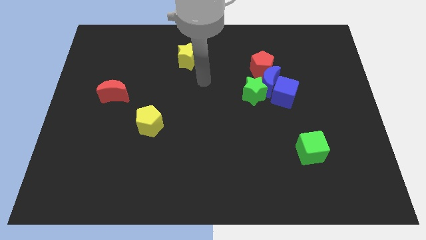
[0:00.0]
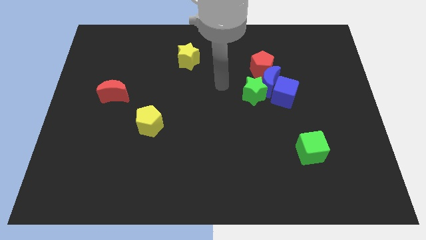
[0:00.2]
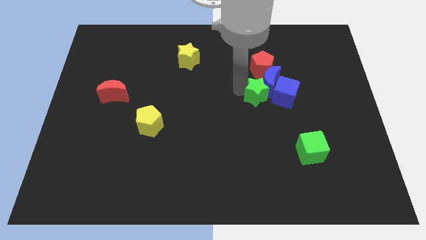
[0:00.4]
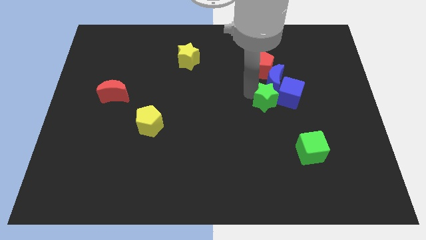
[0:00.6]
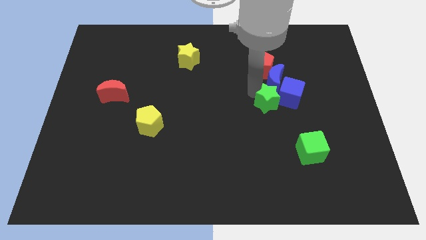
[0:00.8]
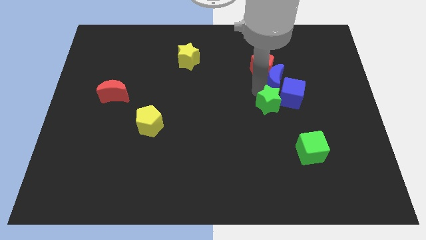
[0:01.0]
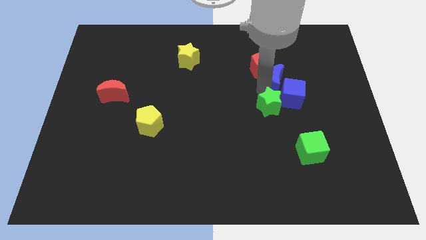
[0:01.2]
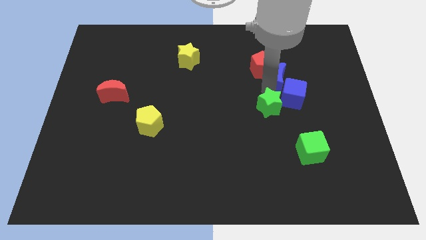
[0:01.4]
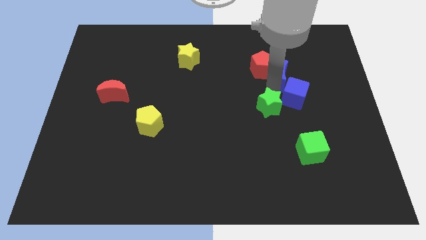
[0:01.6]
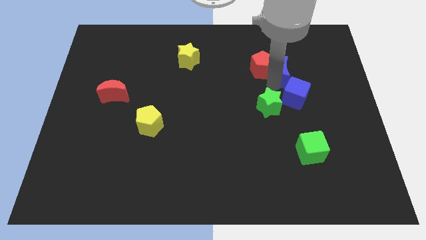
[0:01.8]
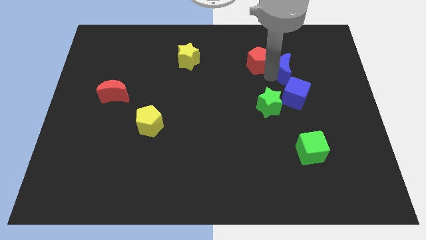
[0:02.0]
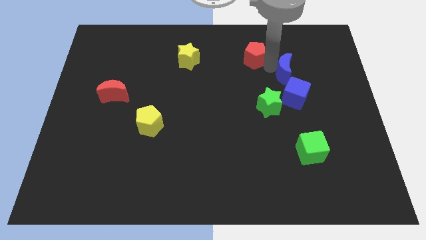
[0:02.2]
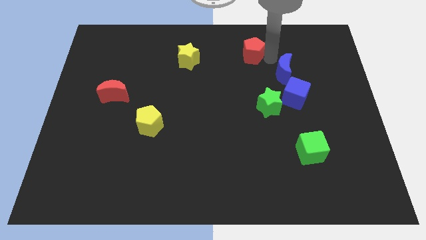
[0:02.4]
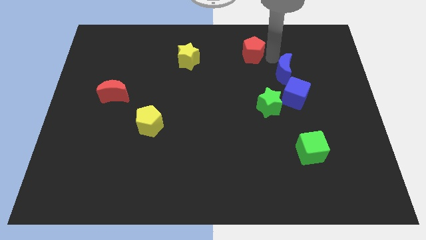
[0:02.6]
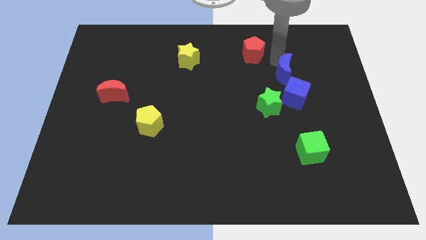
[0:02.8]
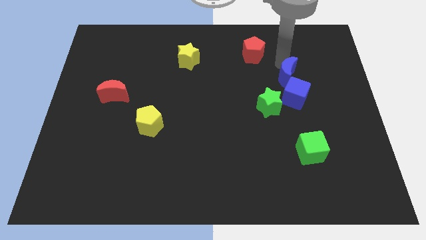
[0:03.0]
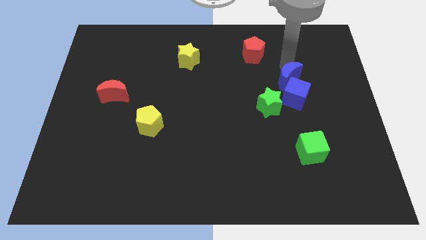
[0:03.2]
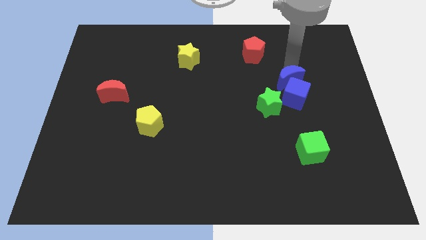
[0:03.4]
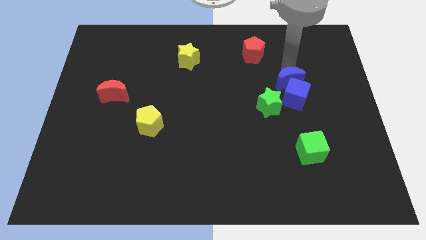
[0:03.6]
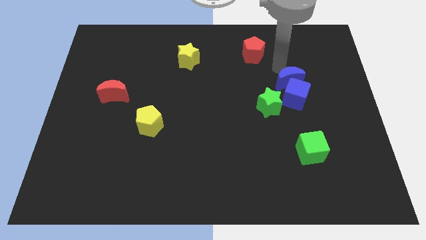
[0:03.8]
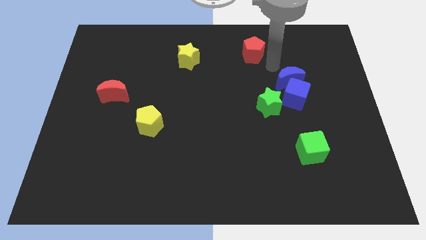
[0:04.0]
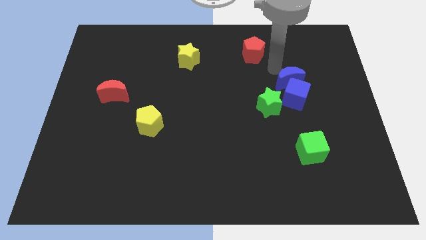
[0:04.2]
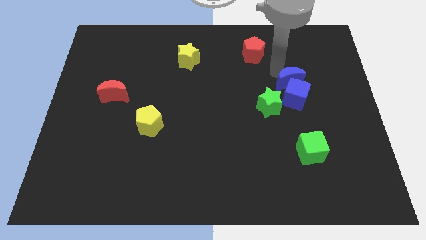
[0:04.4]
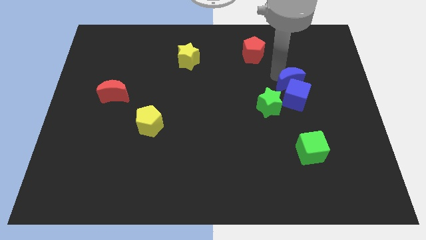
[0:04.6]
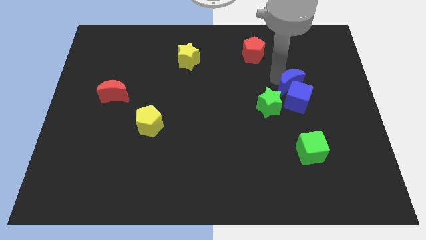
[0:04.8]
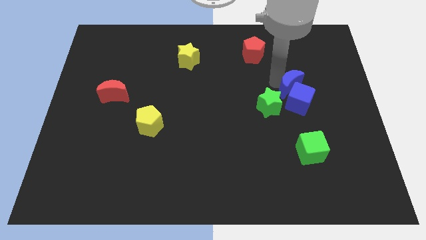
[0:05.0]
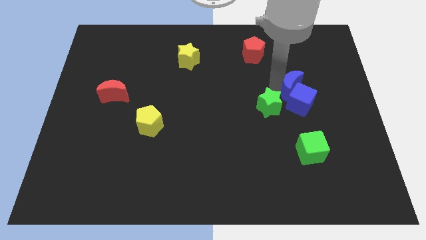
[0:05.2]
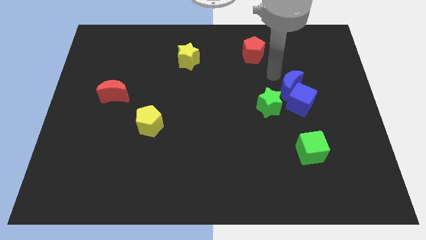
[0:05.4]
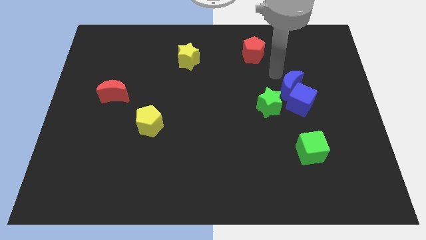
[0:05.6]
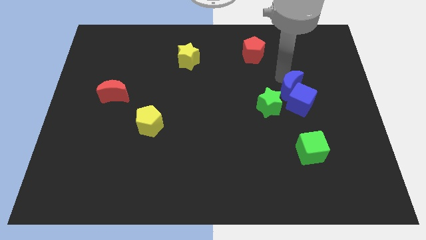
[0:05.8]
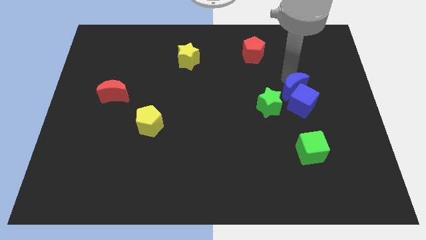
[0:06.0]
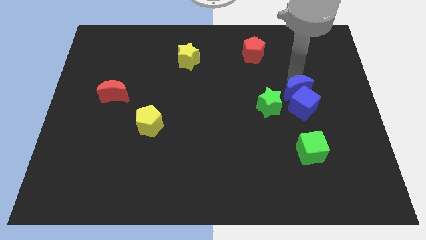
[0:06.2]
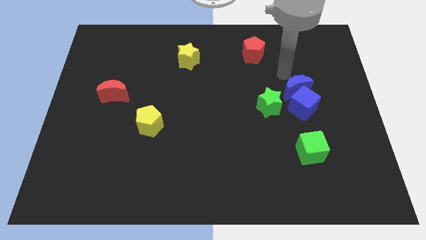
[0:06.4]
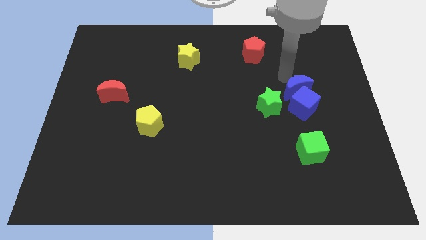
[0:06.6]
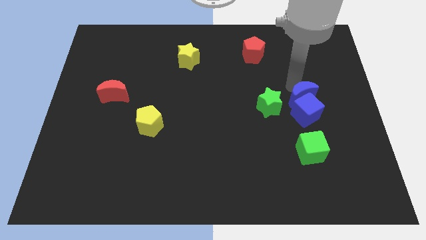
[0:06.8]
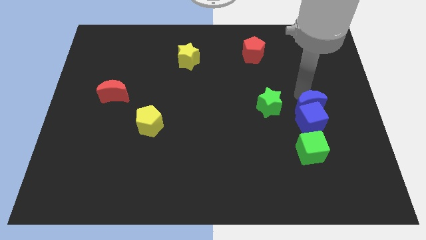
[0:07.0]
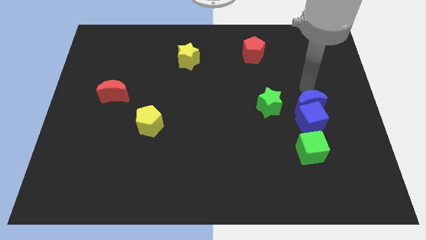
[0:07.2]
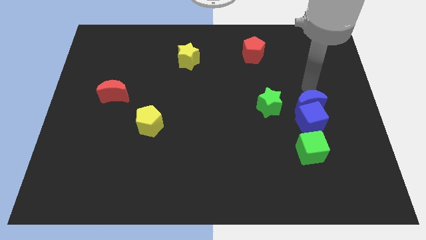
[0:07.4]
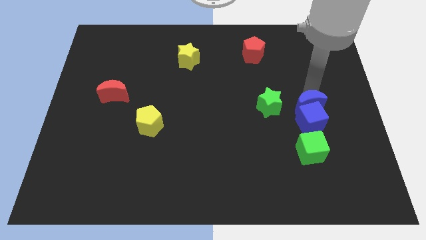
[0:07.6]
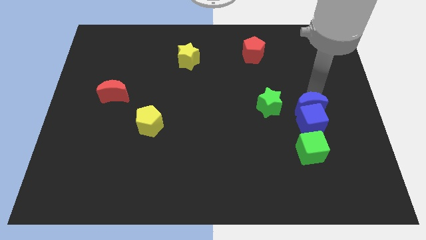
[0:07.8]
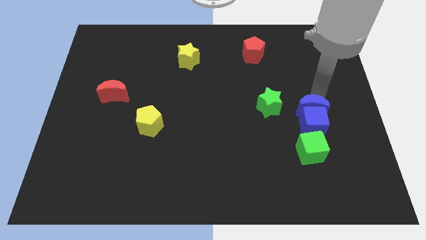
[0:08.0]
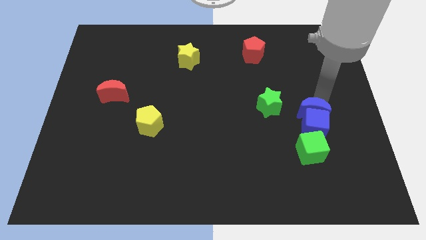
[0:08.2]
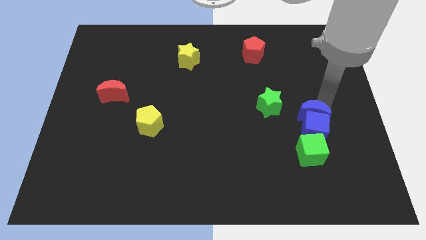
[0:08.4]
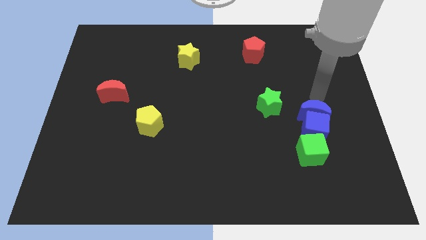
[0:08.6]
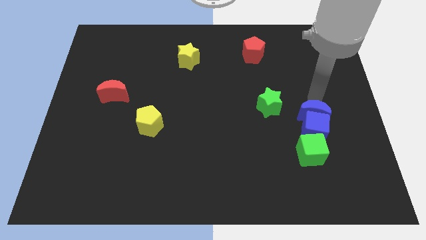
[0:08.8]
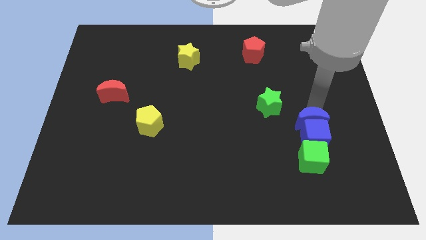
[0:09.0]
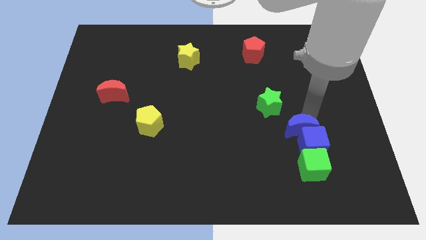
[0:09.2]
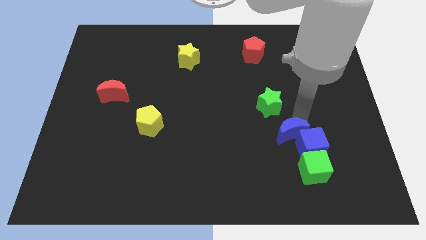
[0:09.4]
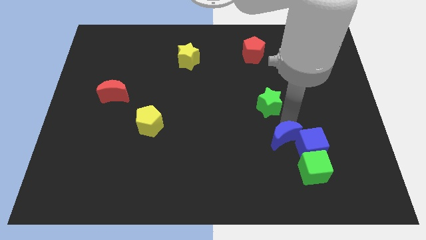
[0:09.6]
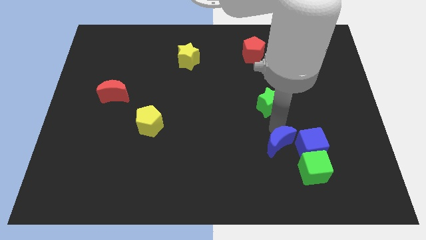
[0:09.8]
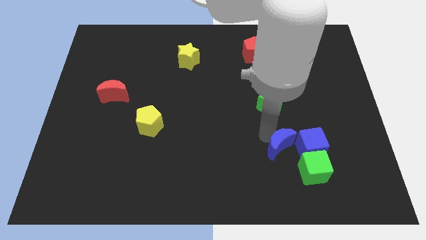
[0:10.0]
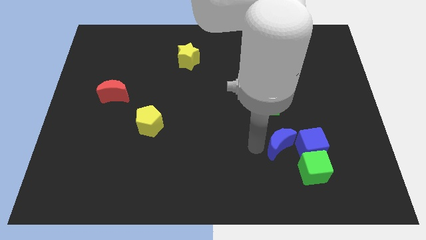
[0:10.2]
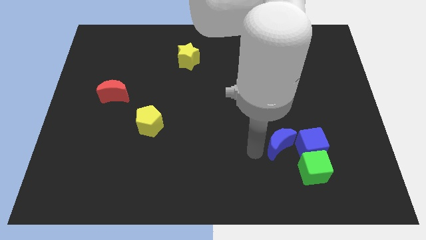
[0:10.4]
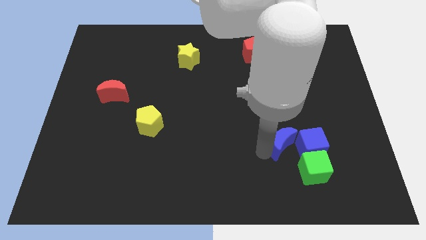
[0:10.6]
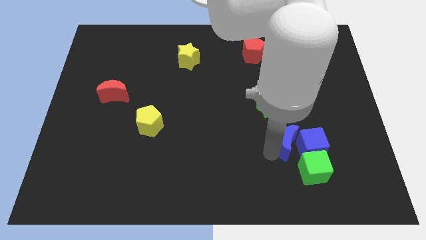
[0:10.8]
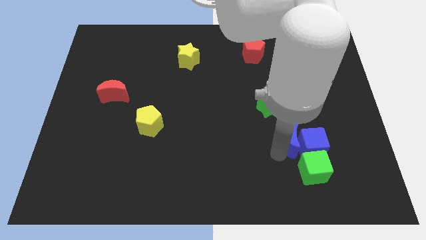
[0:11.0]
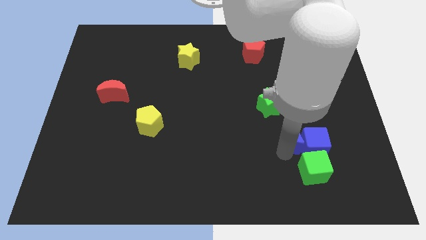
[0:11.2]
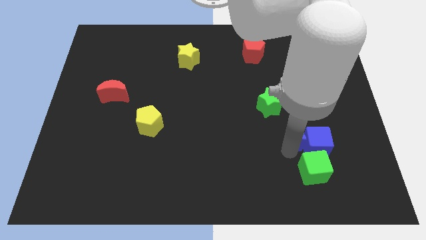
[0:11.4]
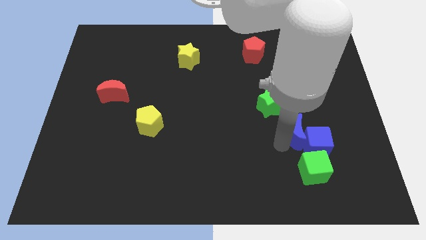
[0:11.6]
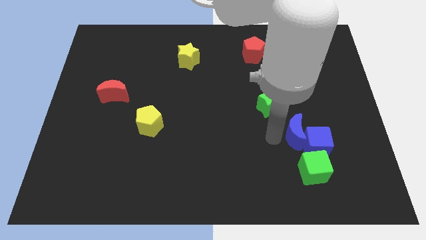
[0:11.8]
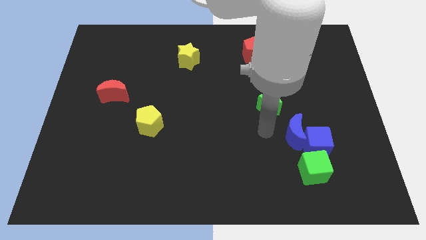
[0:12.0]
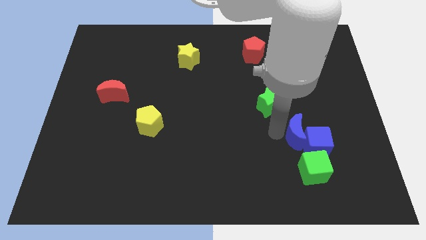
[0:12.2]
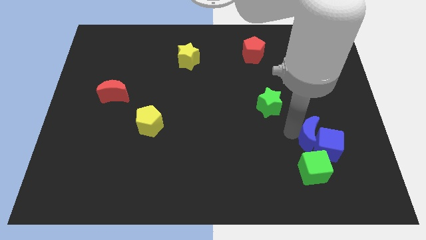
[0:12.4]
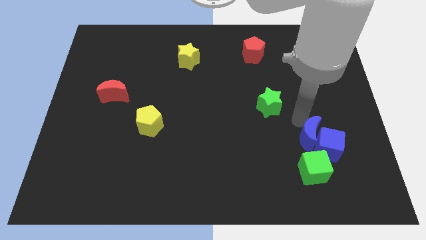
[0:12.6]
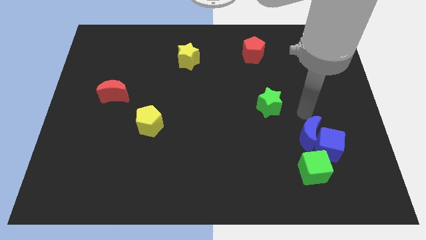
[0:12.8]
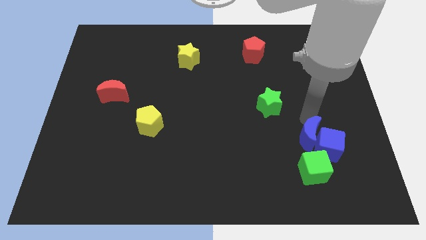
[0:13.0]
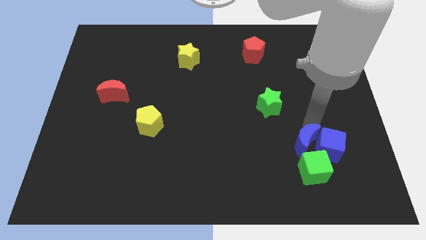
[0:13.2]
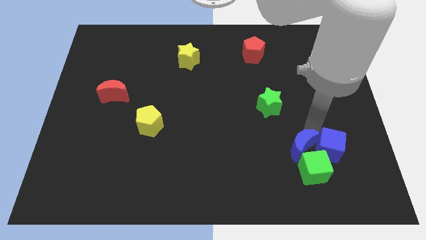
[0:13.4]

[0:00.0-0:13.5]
push the blue moon close to the green cube

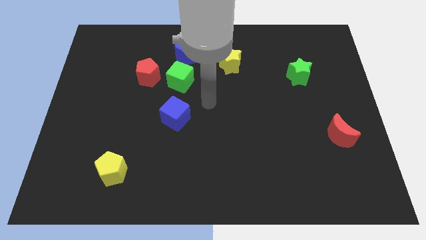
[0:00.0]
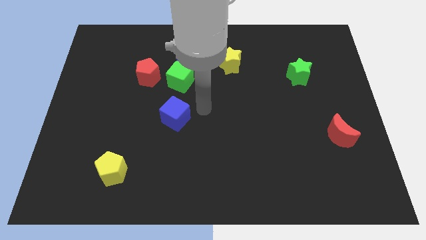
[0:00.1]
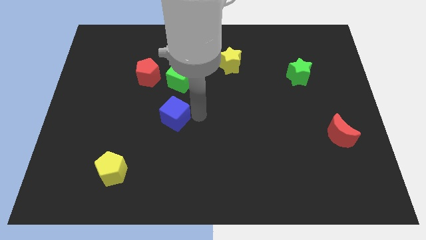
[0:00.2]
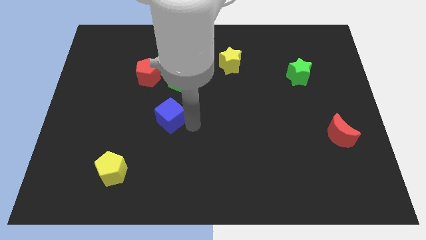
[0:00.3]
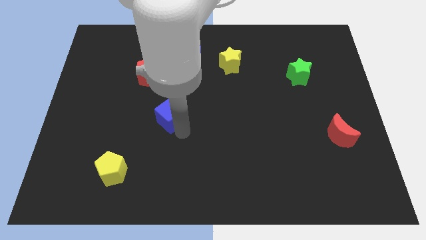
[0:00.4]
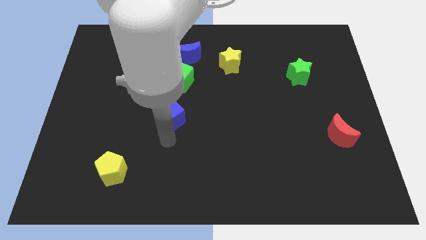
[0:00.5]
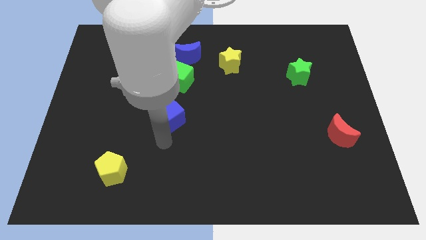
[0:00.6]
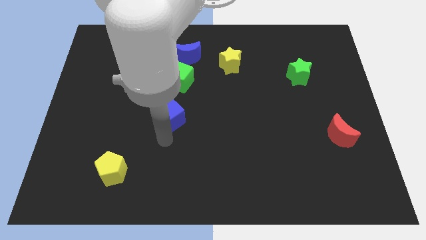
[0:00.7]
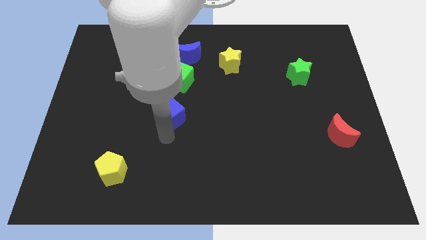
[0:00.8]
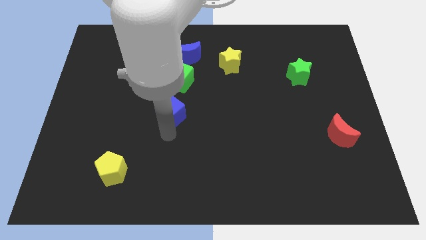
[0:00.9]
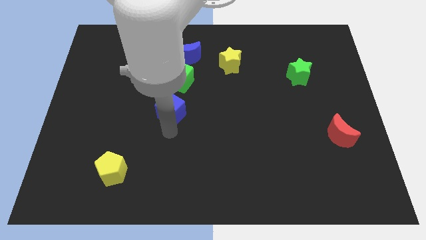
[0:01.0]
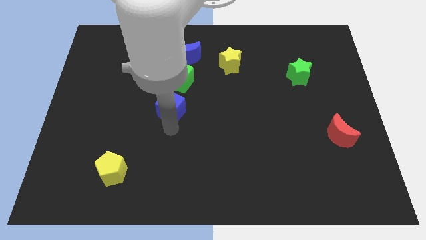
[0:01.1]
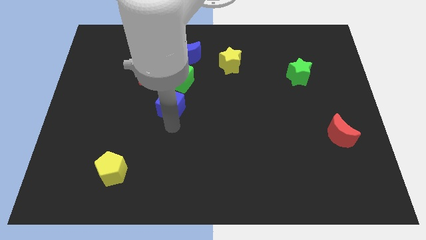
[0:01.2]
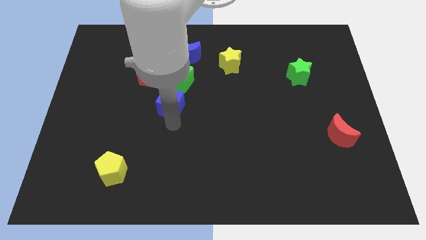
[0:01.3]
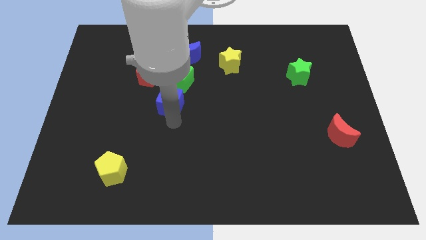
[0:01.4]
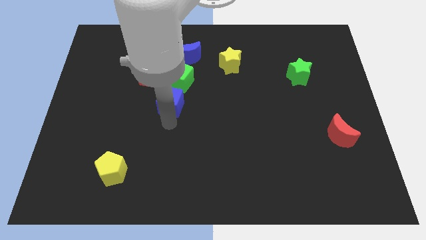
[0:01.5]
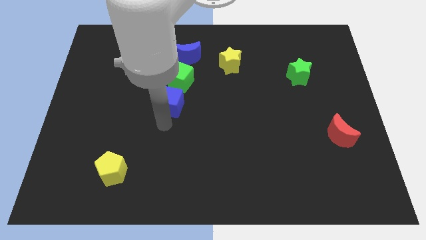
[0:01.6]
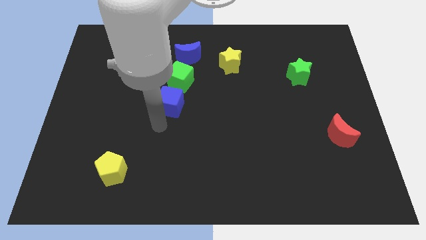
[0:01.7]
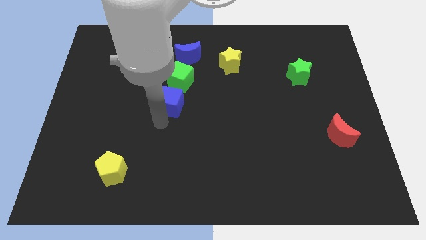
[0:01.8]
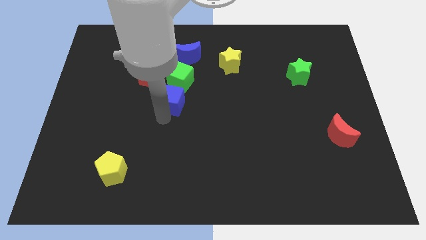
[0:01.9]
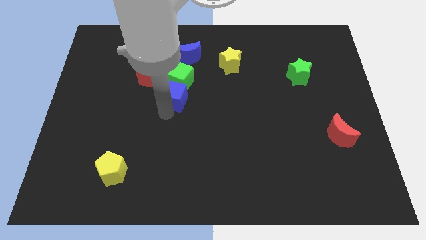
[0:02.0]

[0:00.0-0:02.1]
put the blue cube towards the green cube
